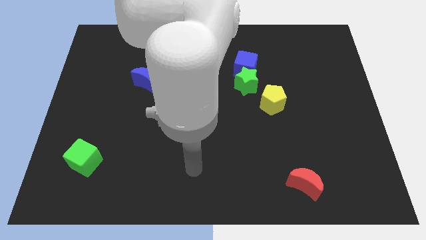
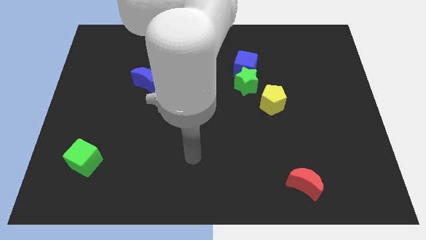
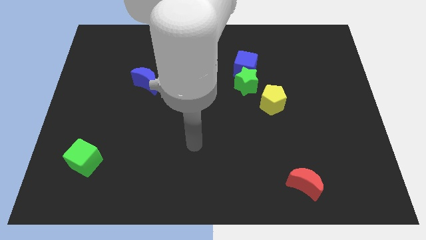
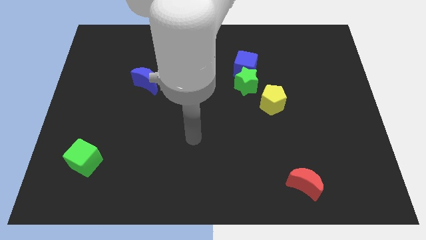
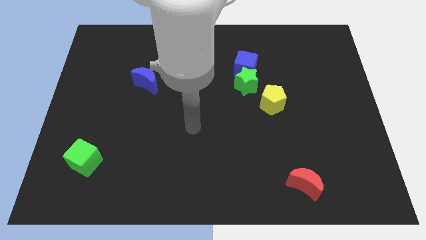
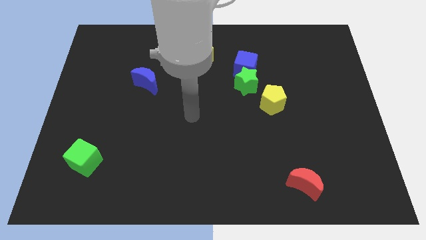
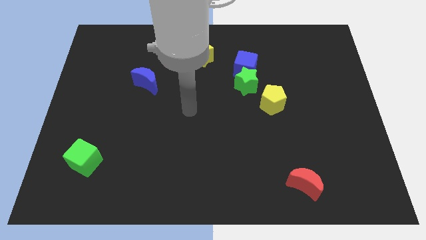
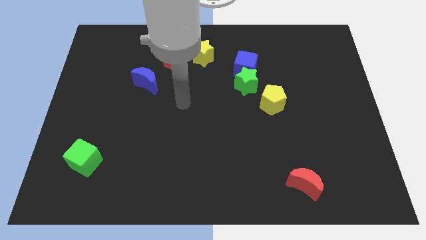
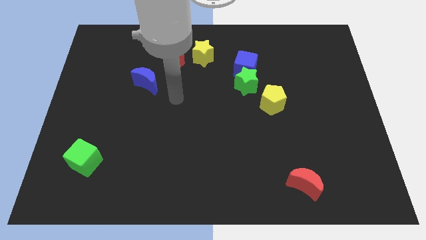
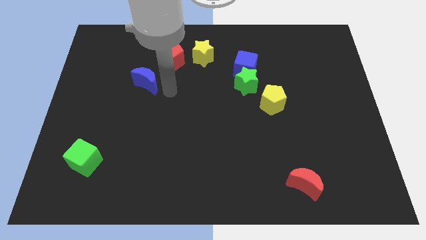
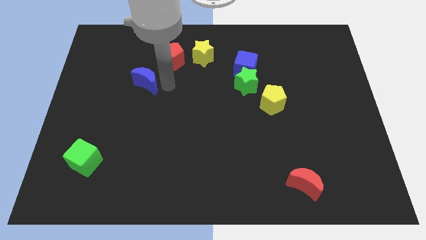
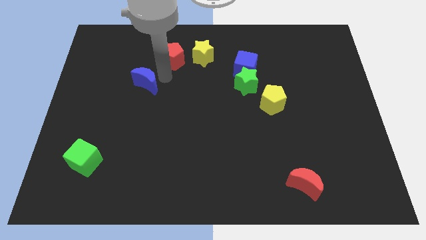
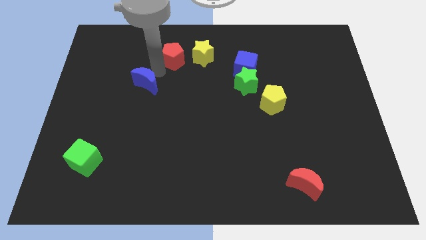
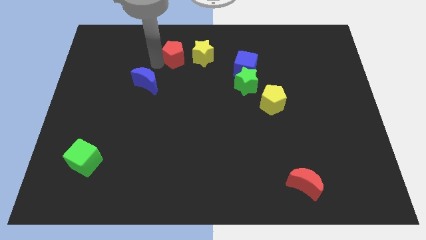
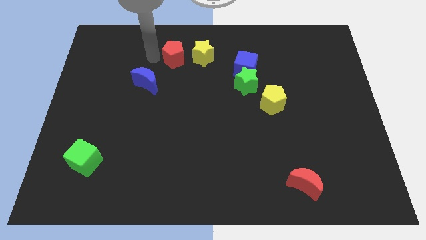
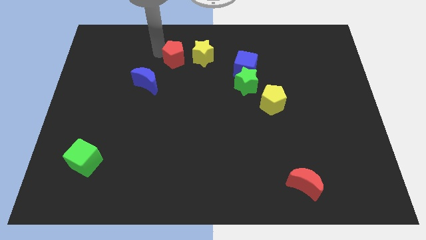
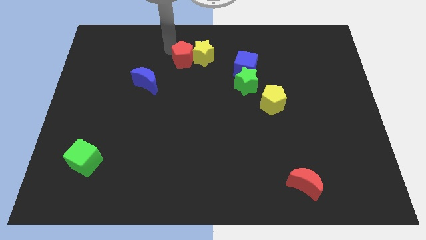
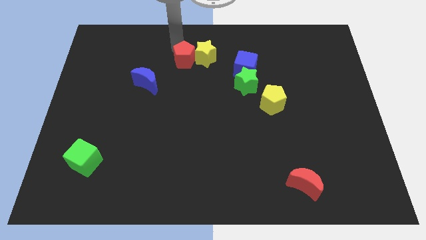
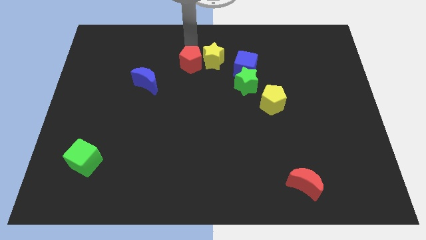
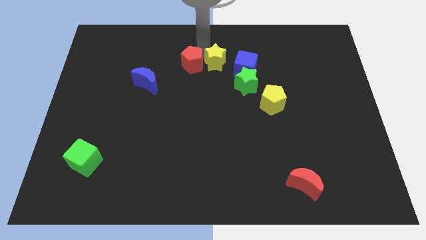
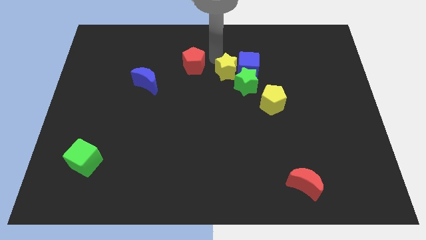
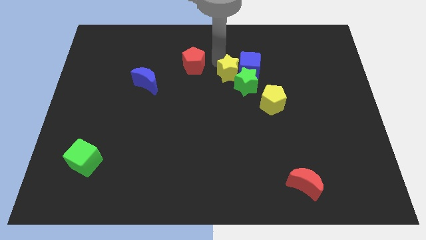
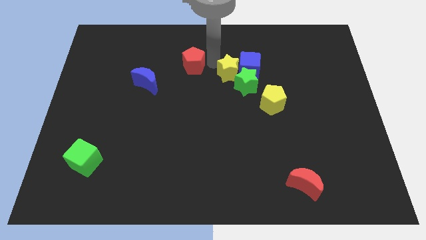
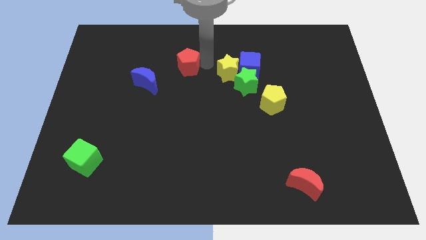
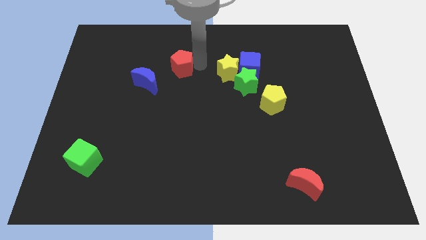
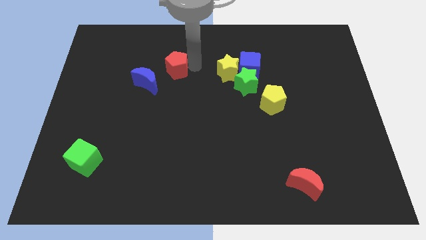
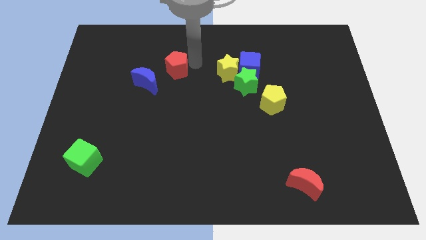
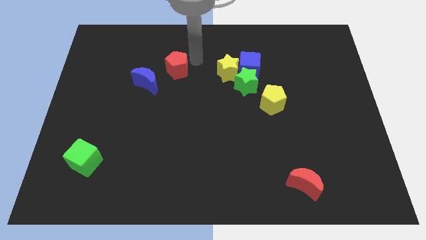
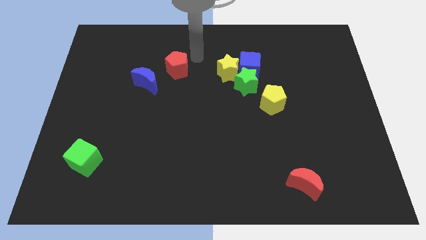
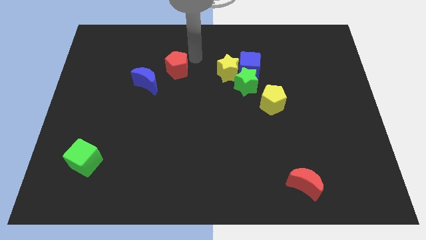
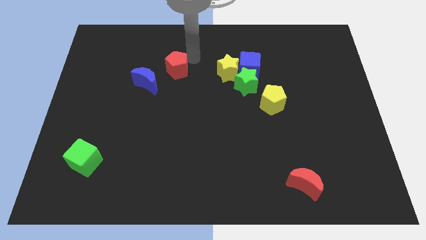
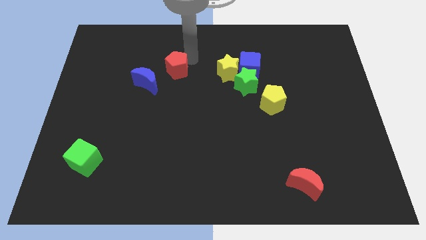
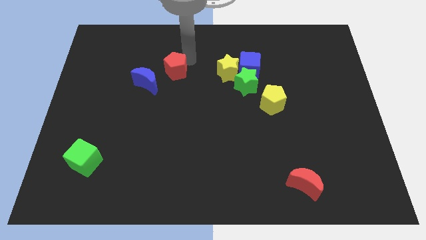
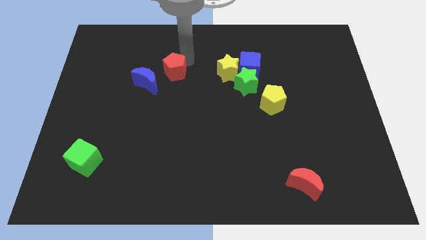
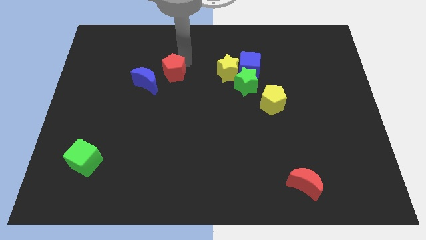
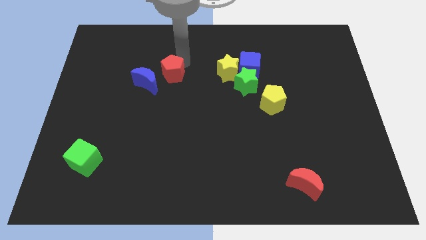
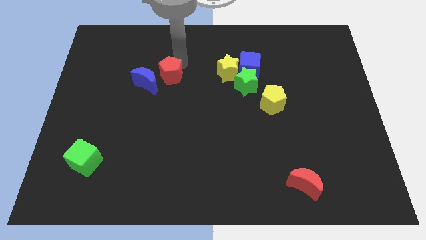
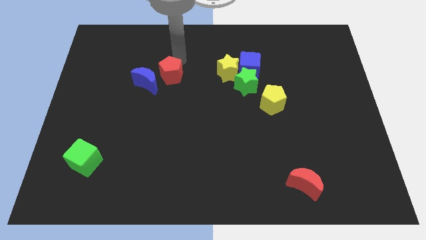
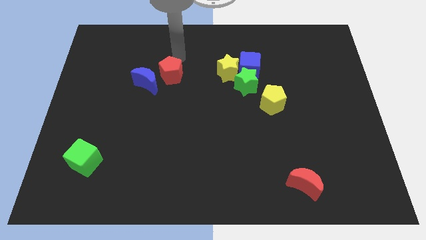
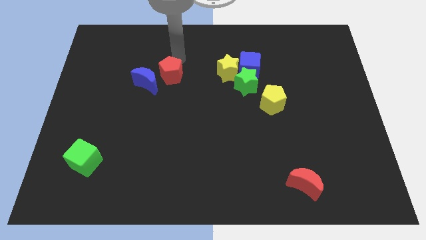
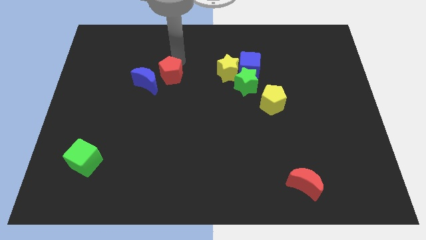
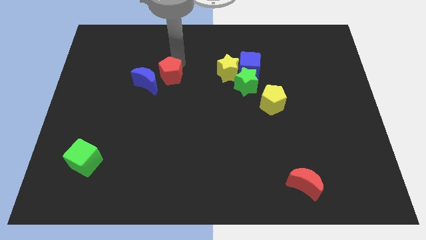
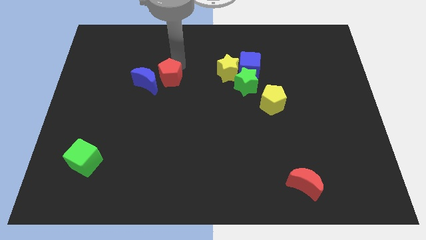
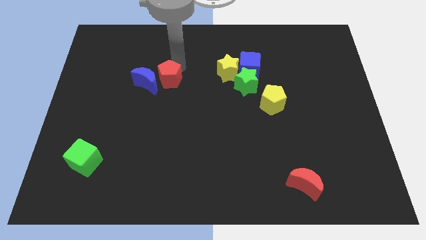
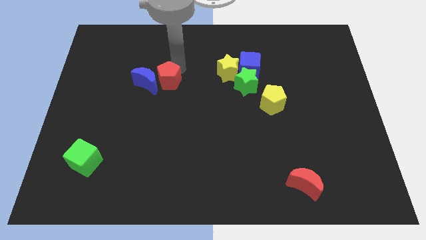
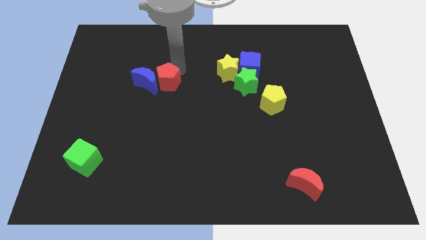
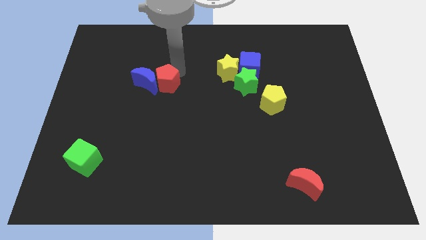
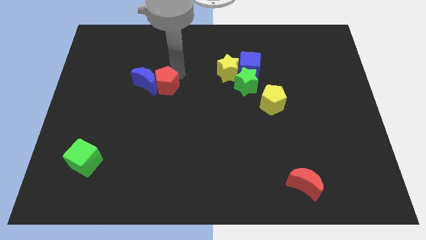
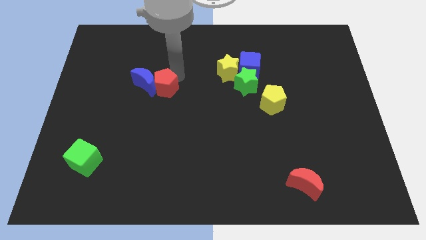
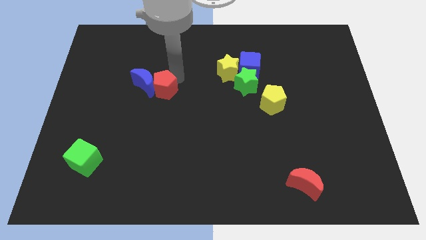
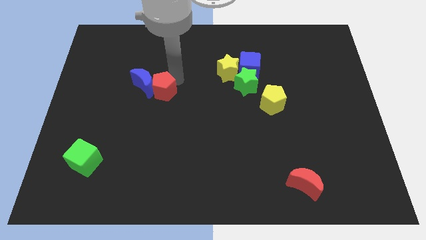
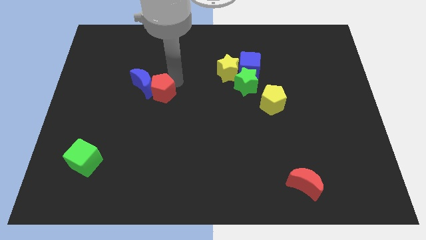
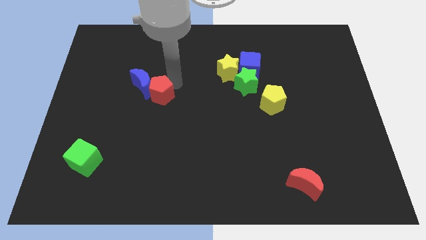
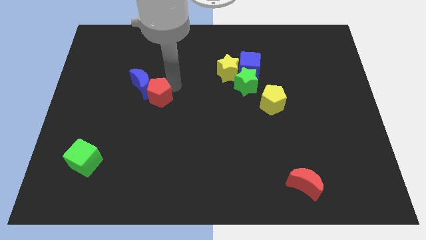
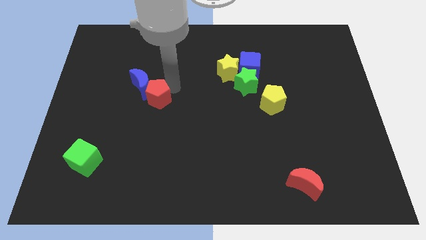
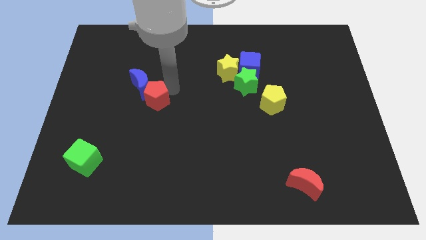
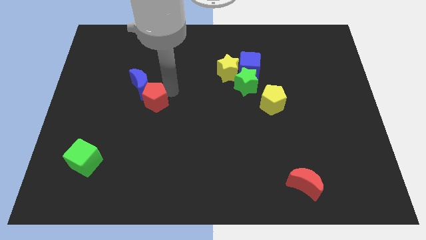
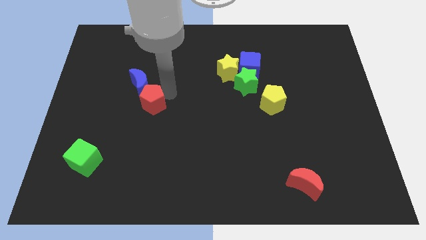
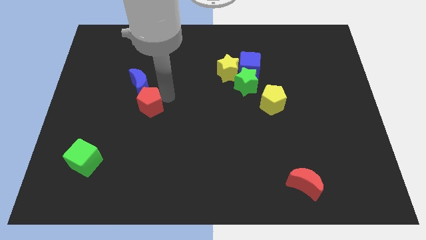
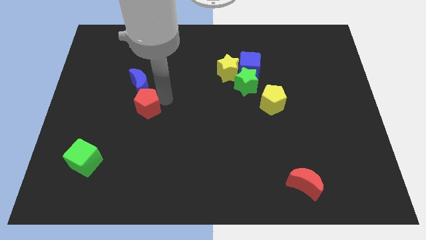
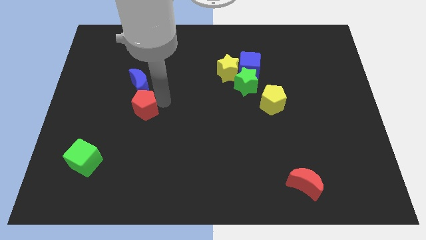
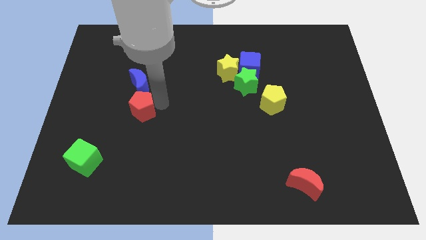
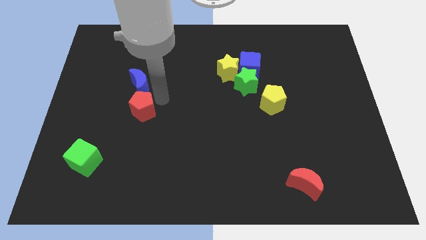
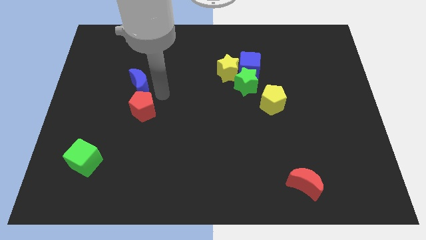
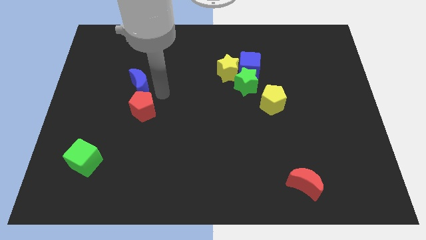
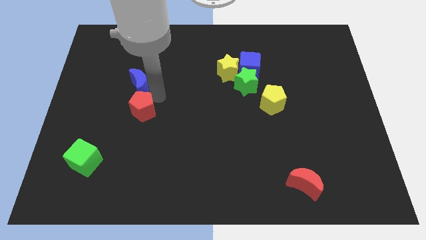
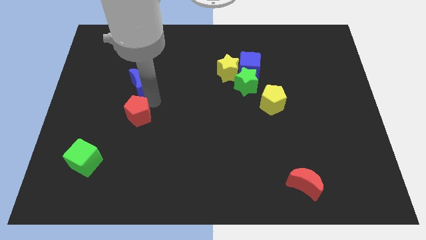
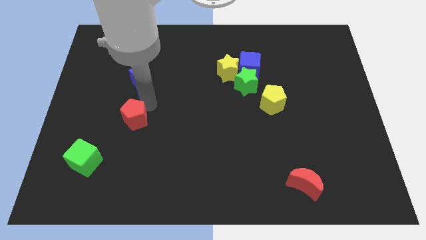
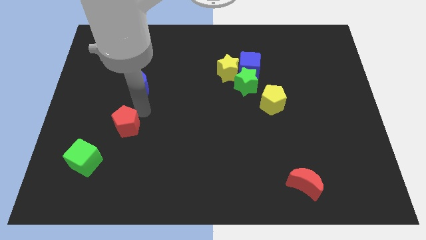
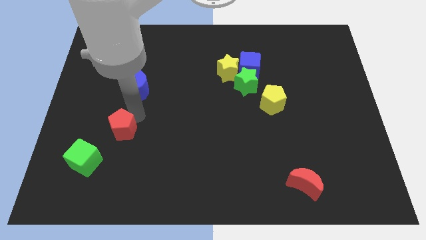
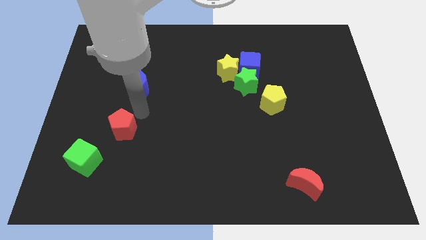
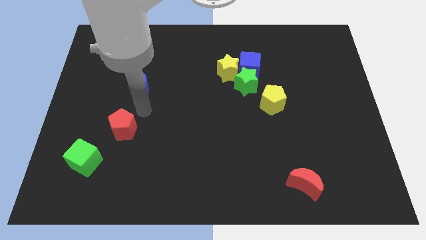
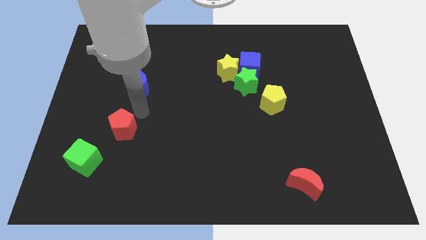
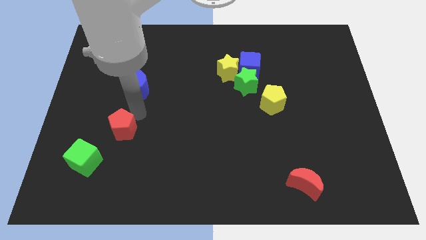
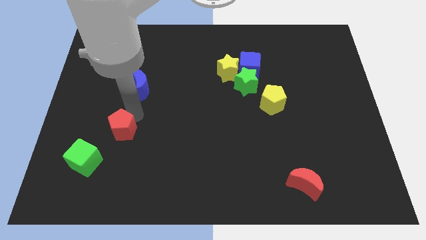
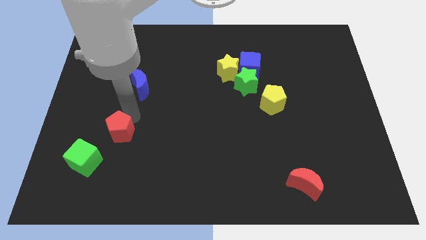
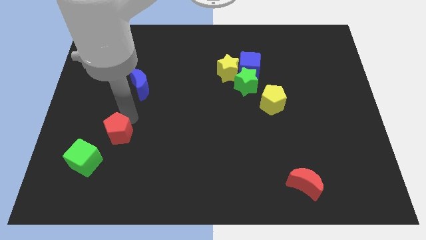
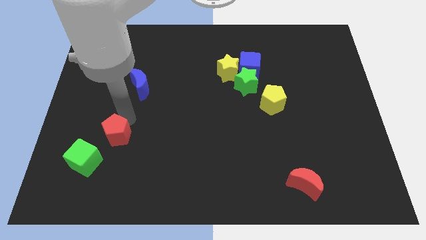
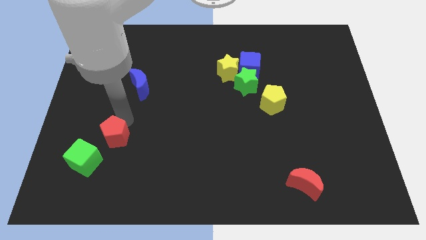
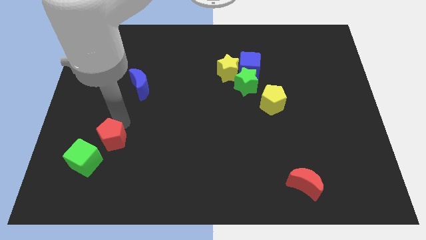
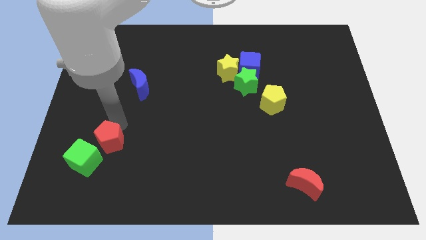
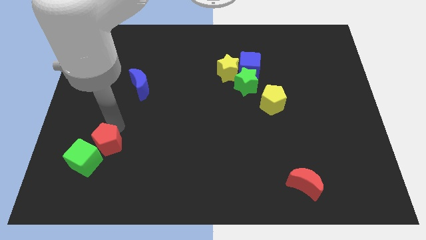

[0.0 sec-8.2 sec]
slide the red pentagon close to the green cube
